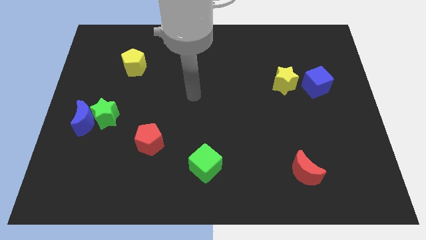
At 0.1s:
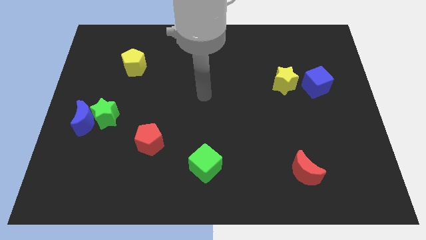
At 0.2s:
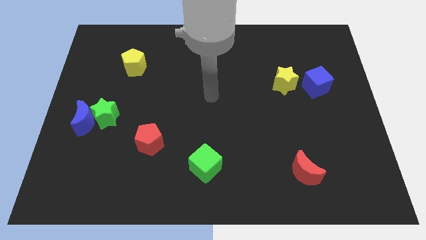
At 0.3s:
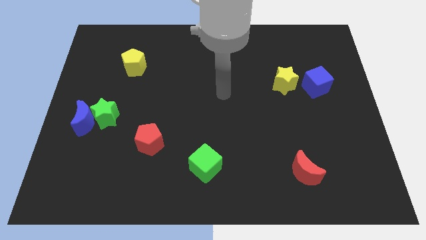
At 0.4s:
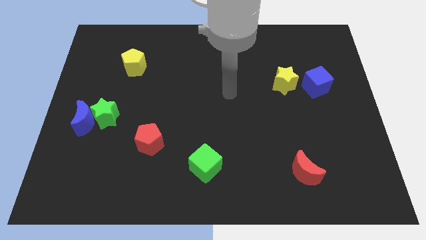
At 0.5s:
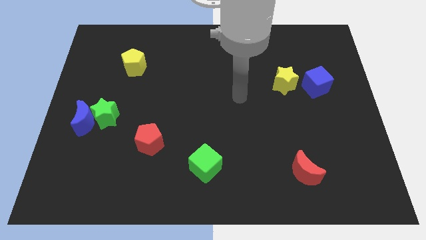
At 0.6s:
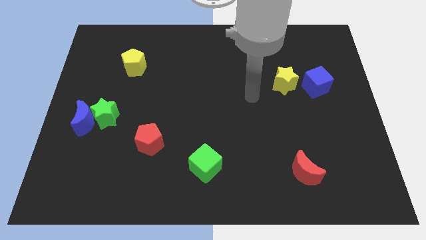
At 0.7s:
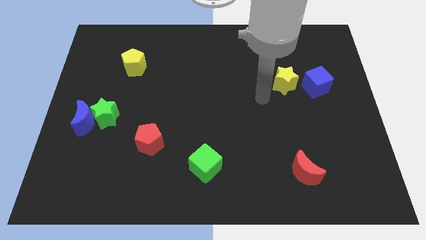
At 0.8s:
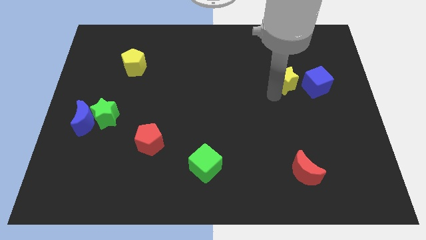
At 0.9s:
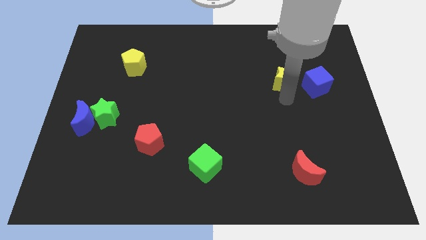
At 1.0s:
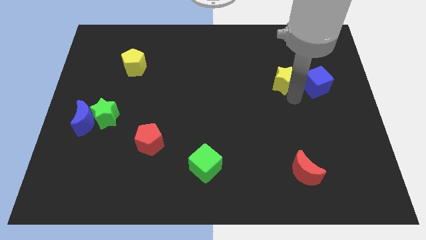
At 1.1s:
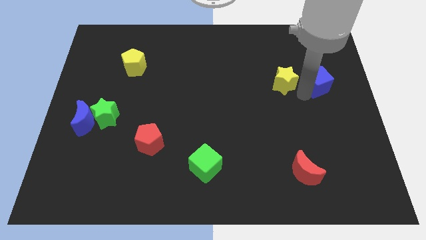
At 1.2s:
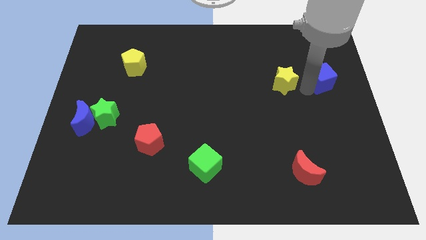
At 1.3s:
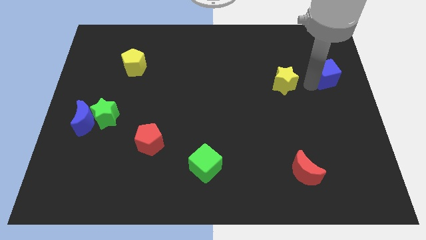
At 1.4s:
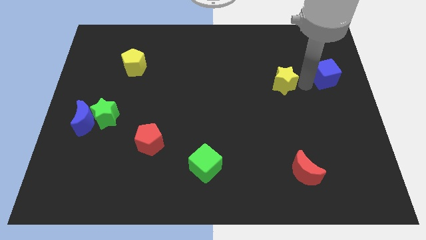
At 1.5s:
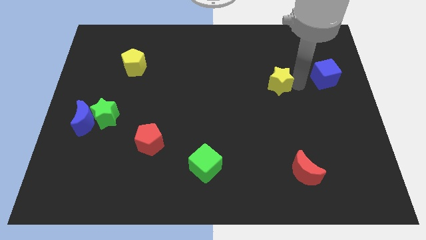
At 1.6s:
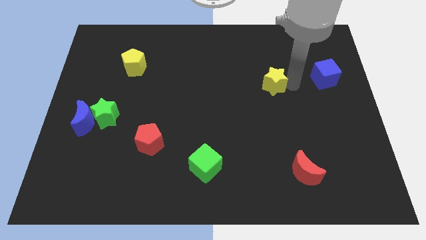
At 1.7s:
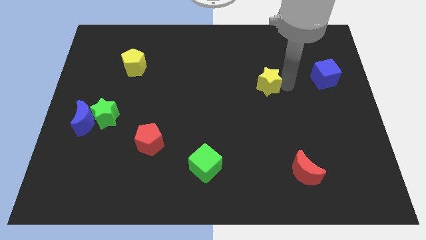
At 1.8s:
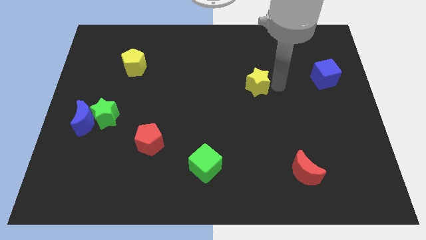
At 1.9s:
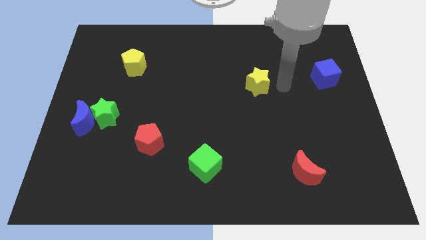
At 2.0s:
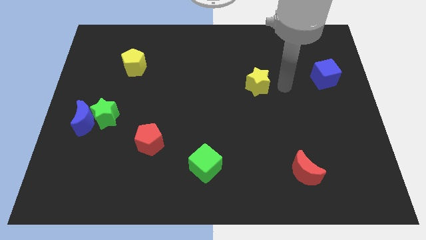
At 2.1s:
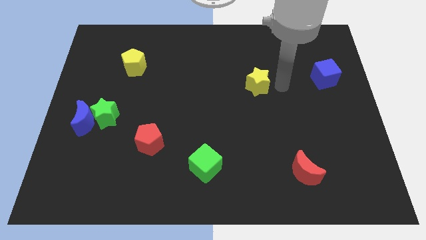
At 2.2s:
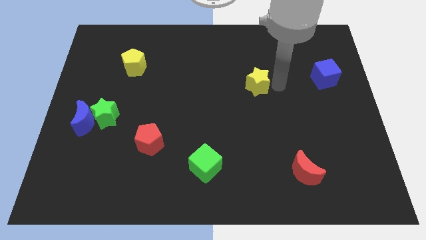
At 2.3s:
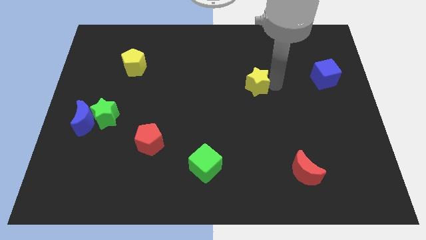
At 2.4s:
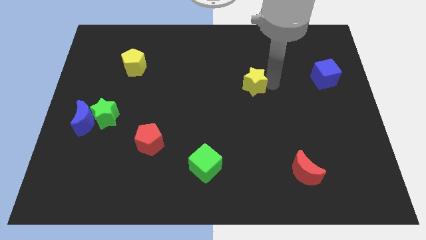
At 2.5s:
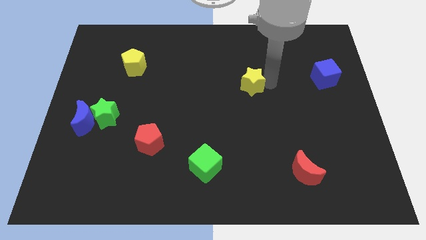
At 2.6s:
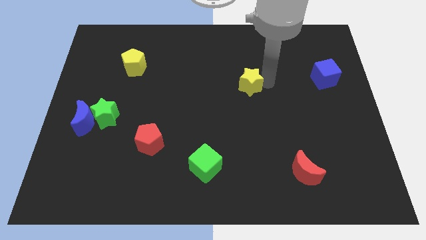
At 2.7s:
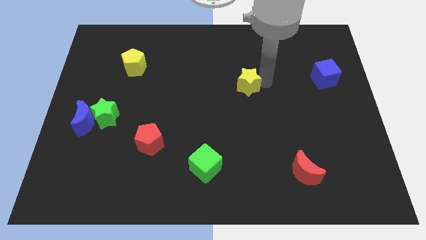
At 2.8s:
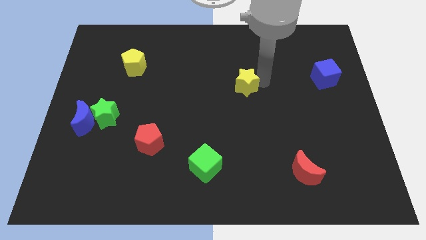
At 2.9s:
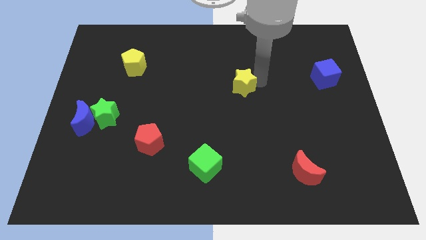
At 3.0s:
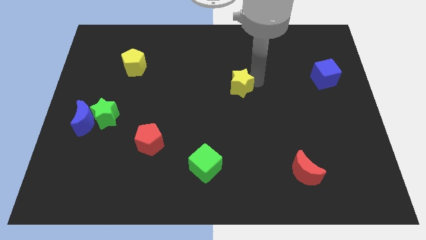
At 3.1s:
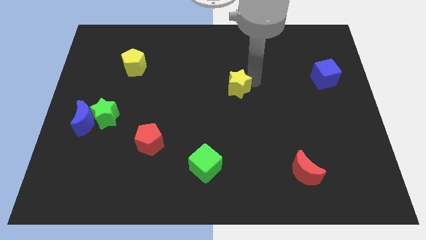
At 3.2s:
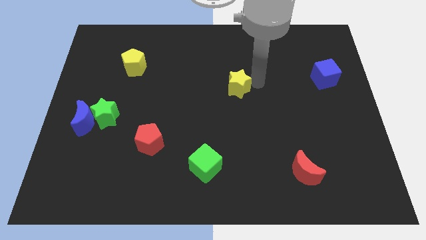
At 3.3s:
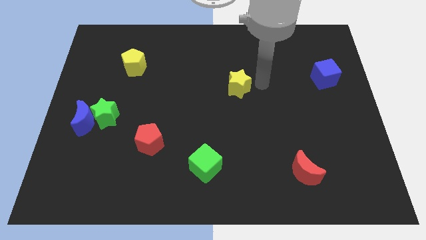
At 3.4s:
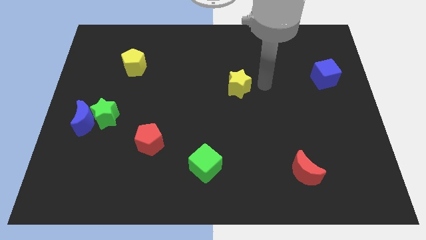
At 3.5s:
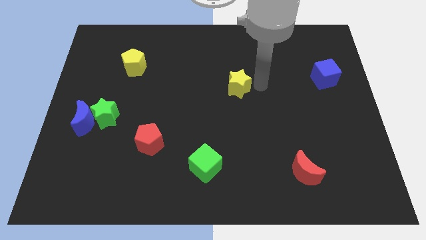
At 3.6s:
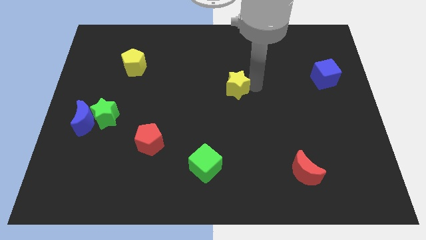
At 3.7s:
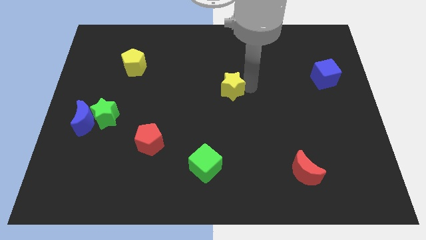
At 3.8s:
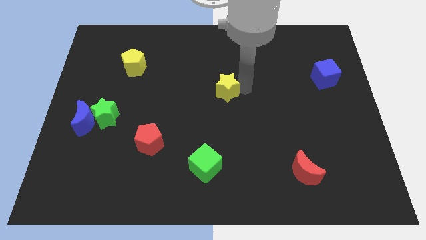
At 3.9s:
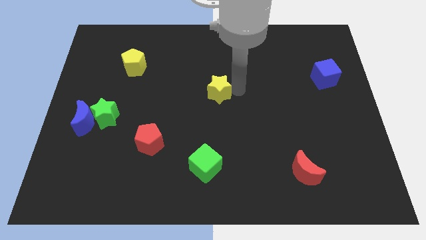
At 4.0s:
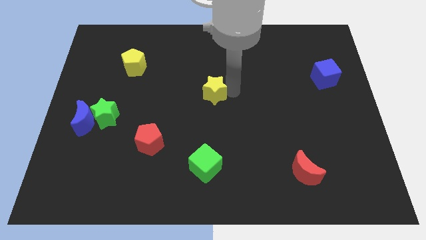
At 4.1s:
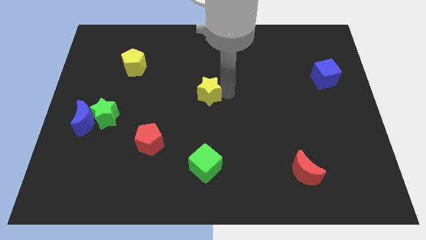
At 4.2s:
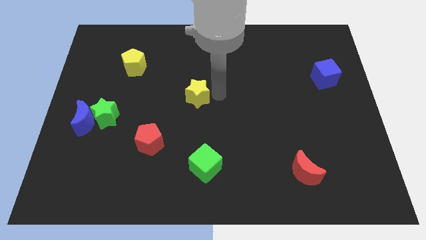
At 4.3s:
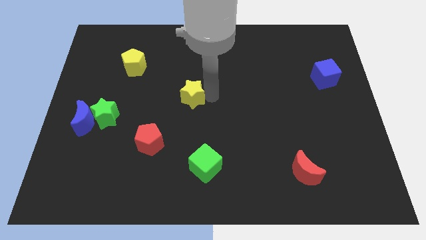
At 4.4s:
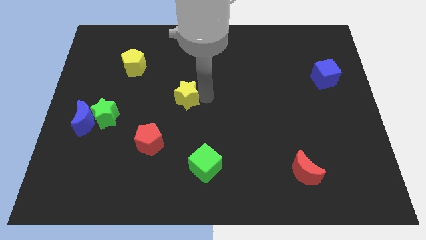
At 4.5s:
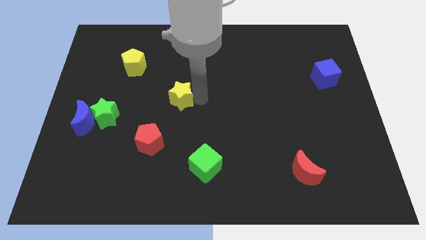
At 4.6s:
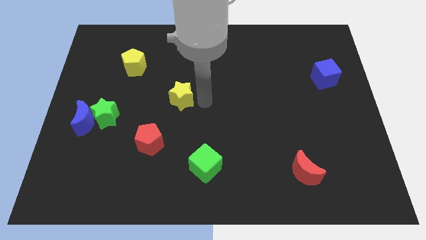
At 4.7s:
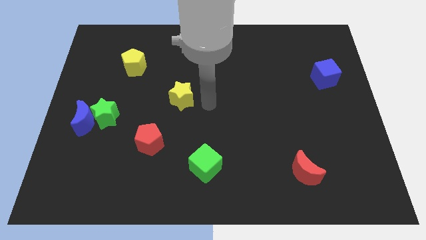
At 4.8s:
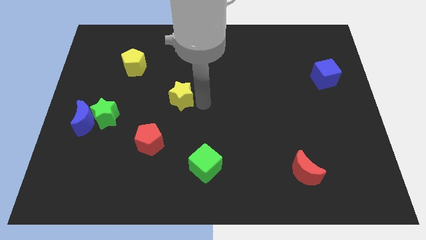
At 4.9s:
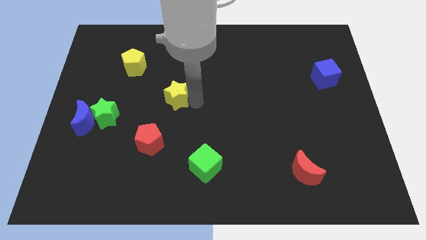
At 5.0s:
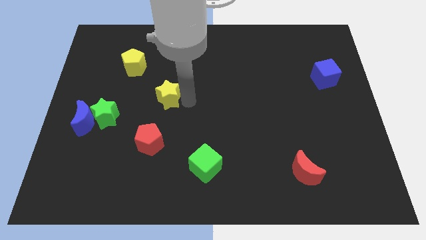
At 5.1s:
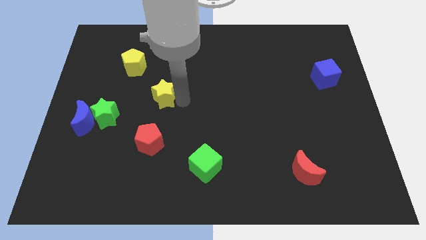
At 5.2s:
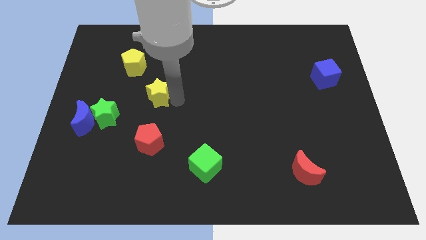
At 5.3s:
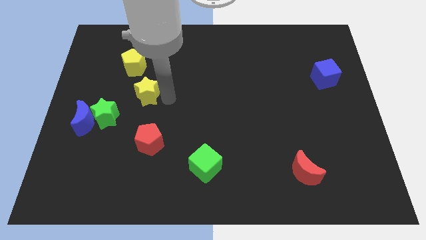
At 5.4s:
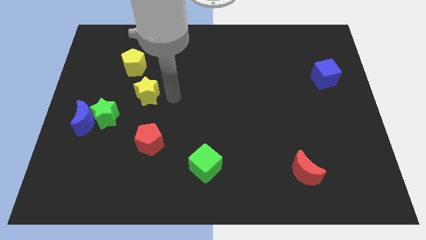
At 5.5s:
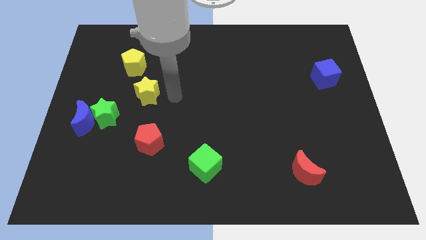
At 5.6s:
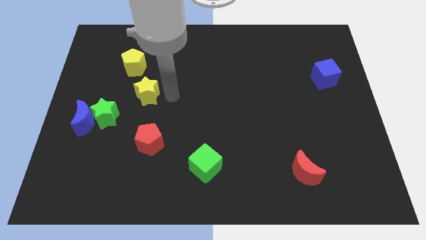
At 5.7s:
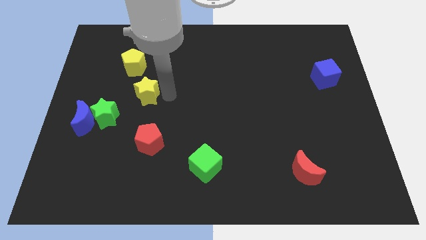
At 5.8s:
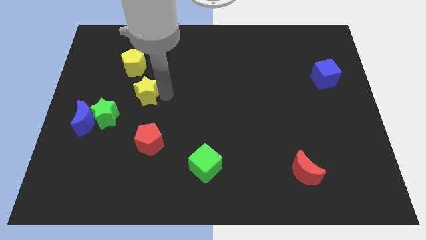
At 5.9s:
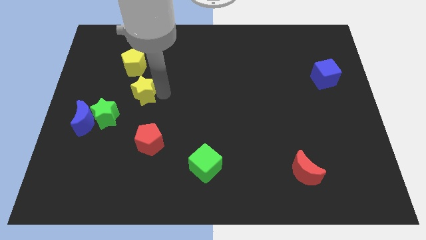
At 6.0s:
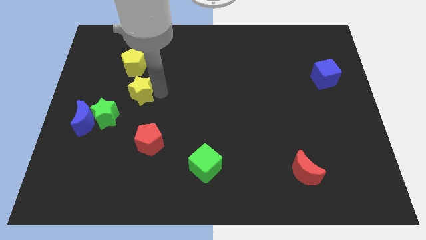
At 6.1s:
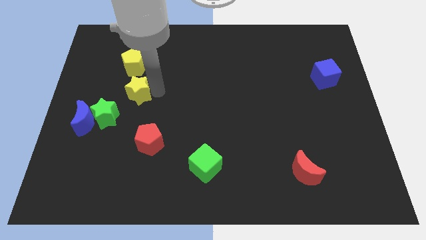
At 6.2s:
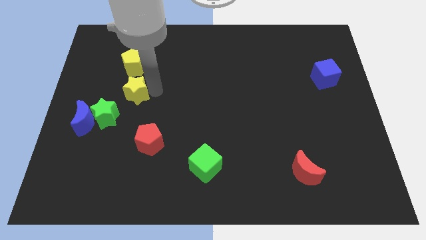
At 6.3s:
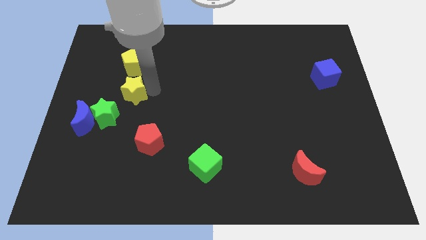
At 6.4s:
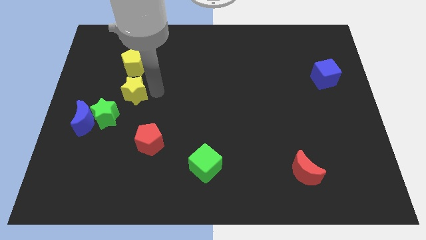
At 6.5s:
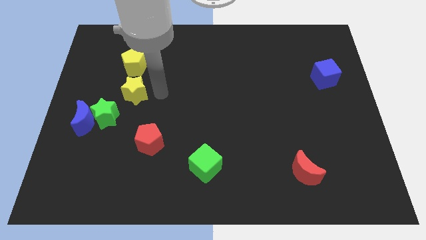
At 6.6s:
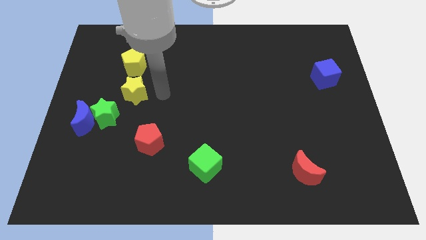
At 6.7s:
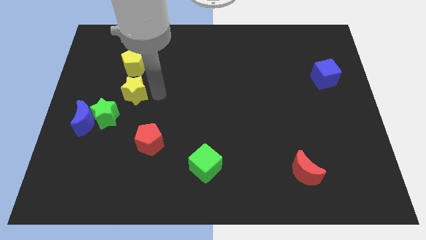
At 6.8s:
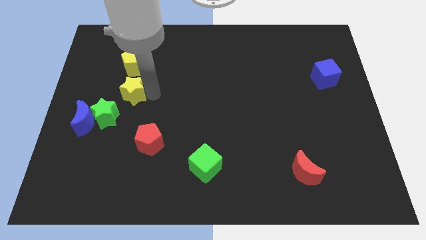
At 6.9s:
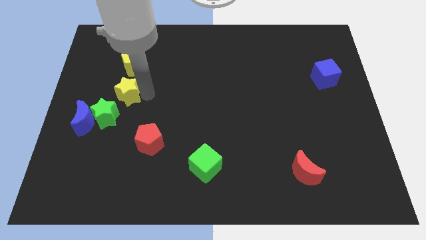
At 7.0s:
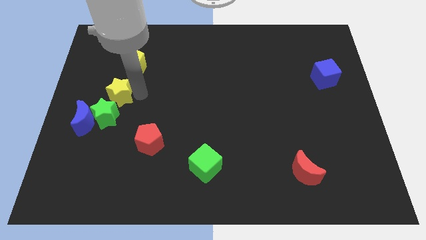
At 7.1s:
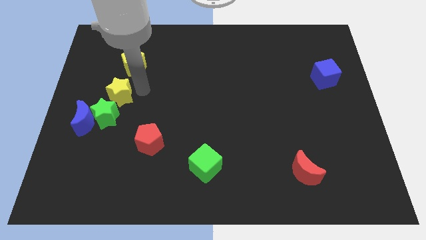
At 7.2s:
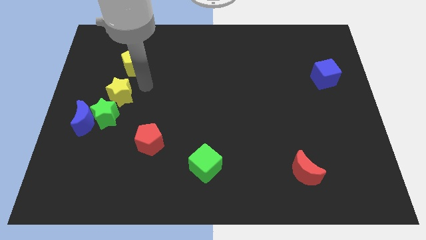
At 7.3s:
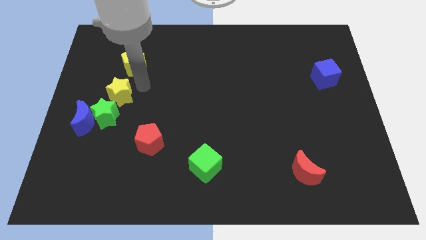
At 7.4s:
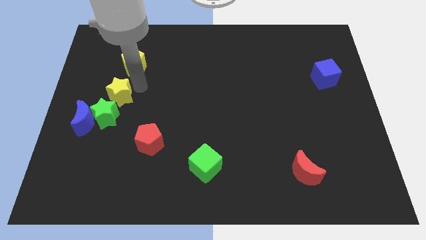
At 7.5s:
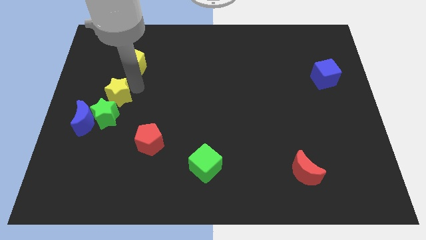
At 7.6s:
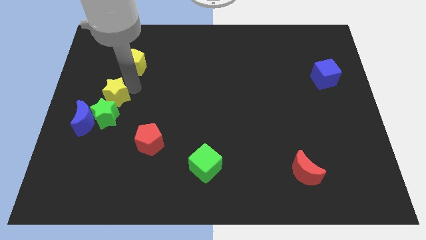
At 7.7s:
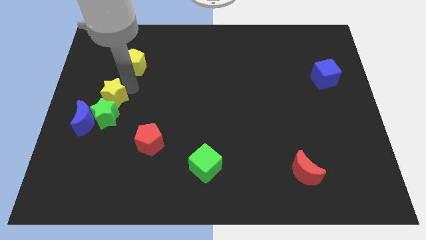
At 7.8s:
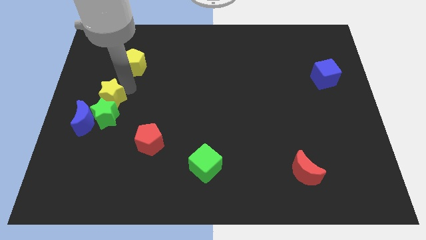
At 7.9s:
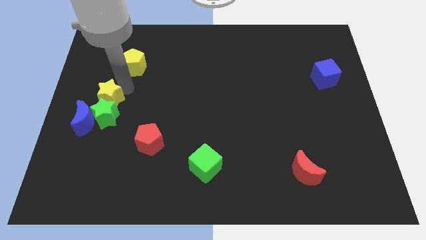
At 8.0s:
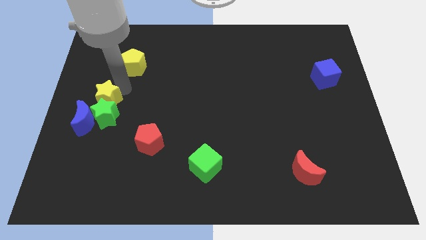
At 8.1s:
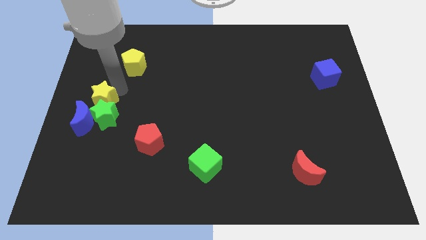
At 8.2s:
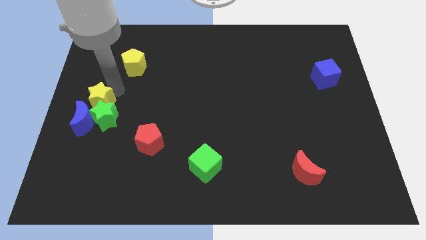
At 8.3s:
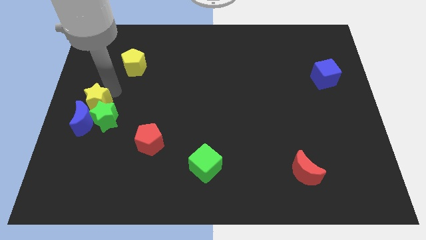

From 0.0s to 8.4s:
put the yellow star to the blue moon
